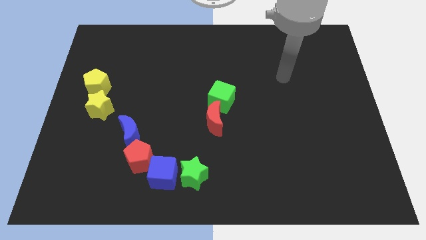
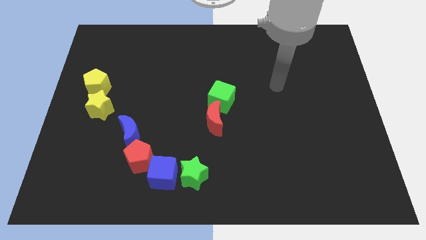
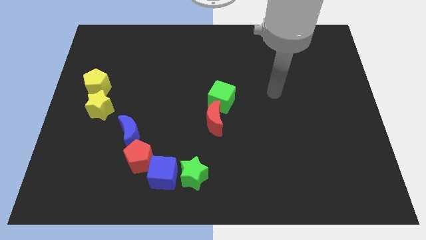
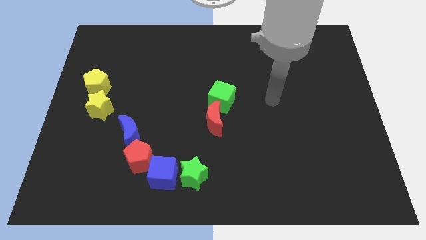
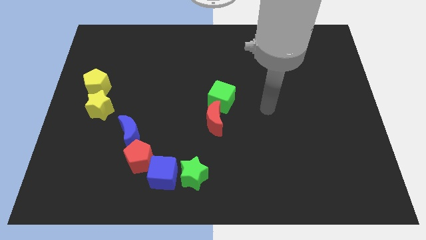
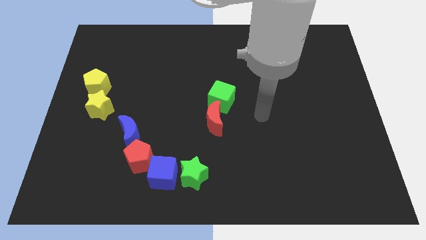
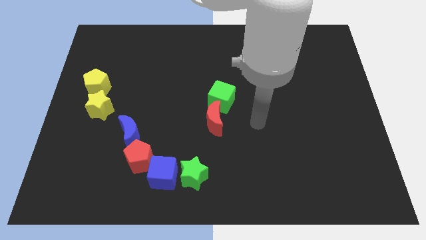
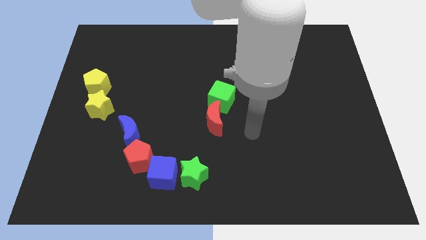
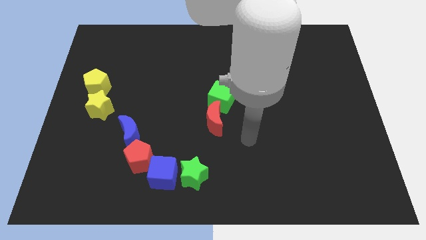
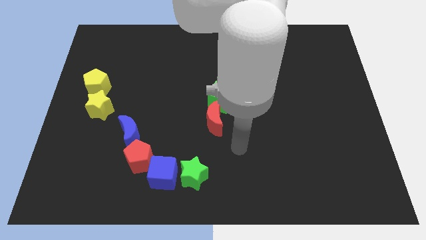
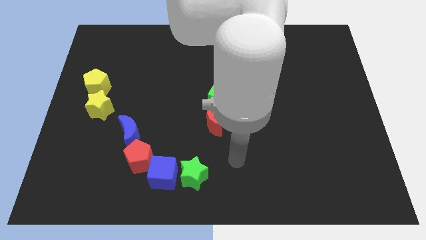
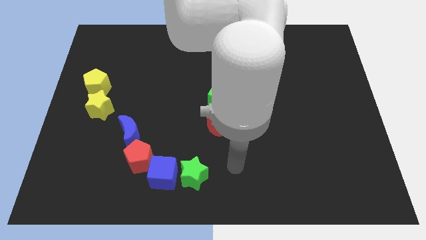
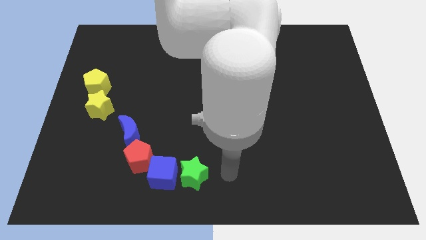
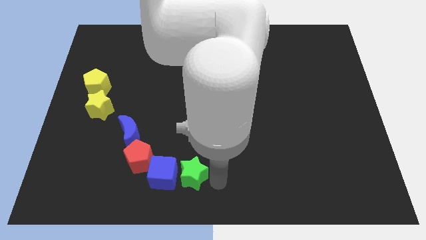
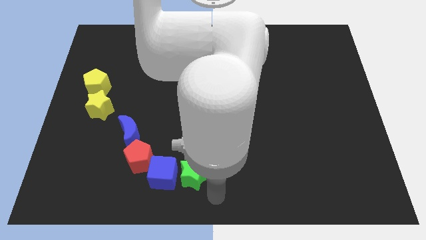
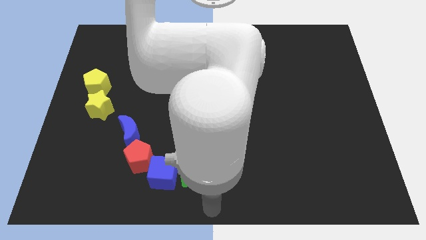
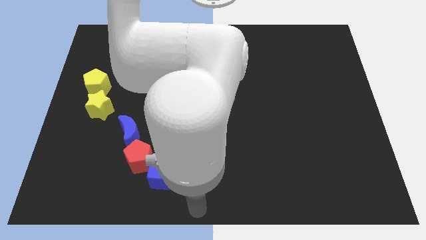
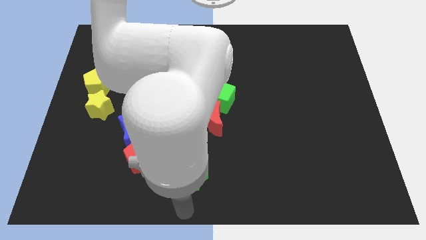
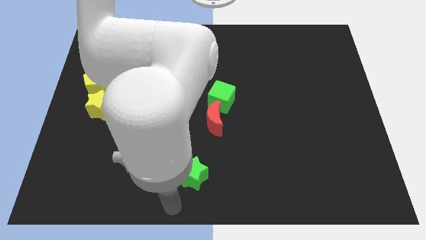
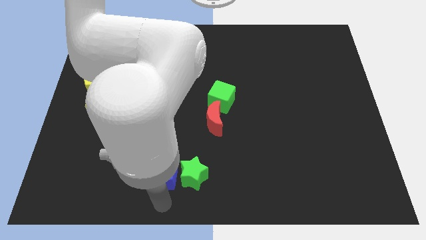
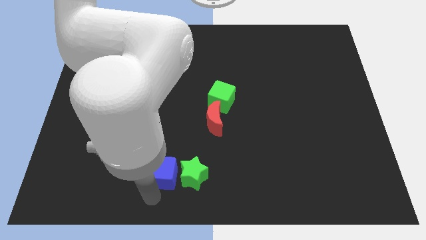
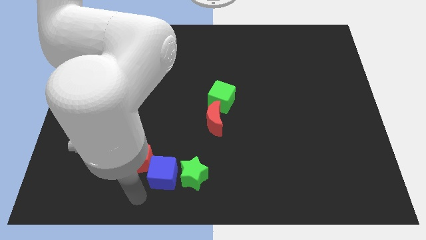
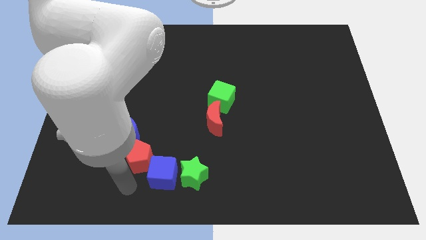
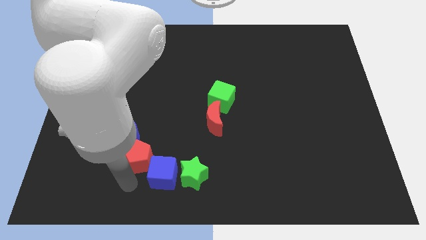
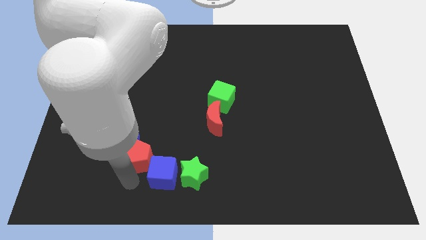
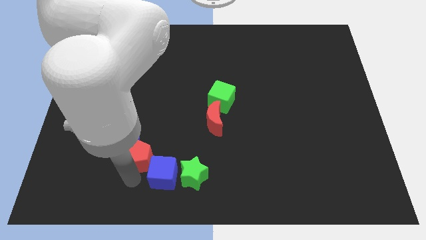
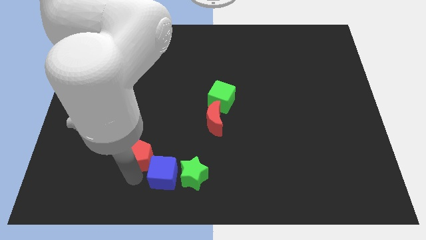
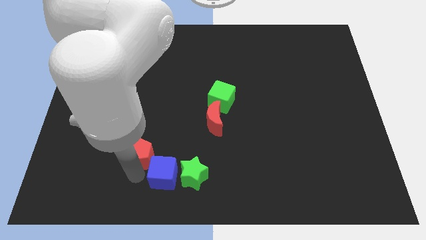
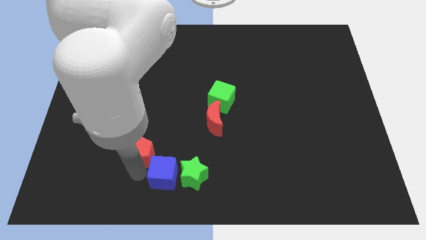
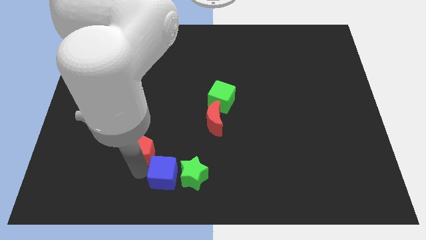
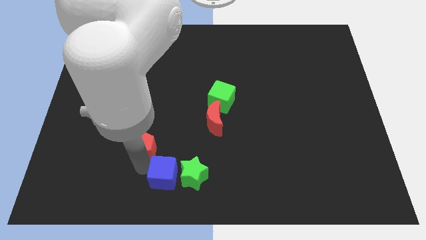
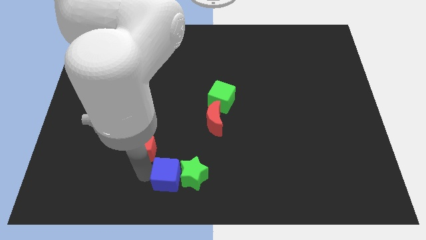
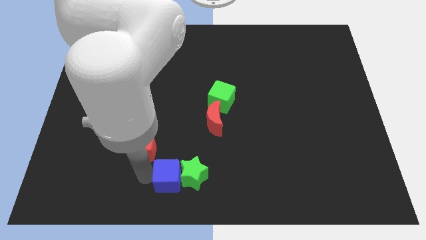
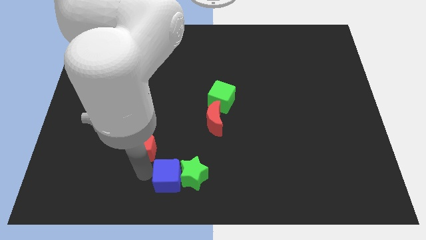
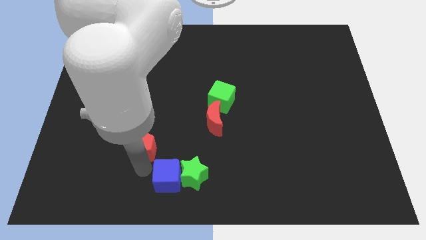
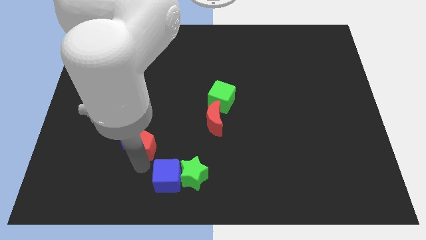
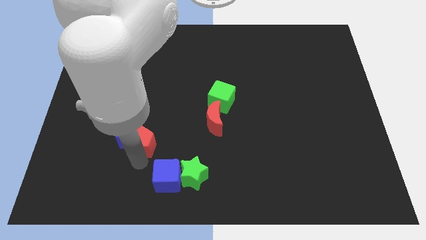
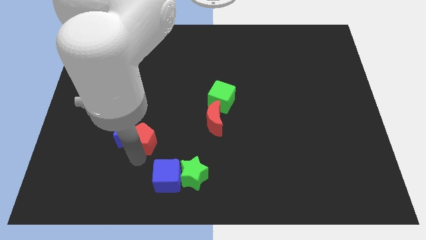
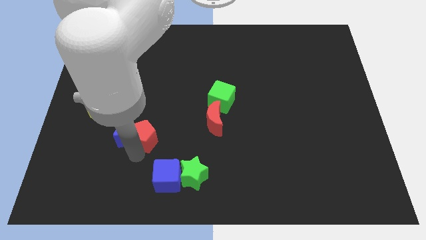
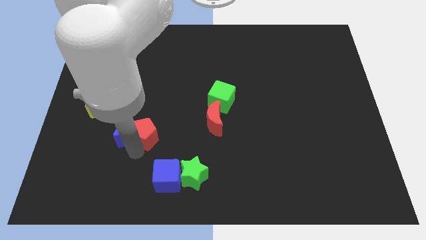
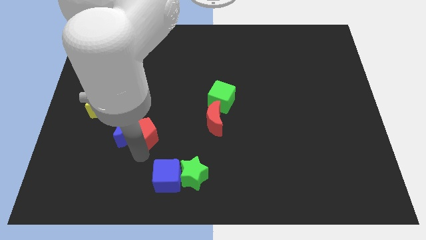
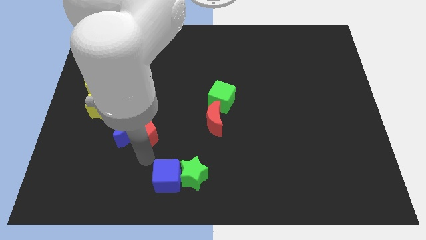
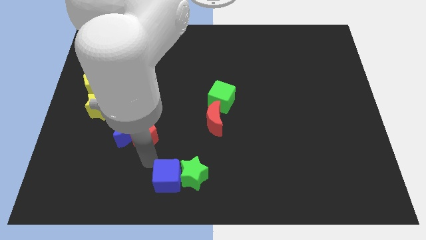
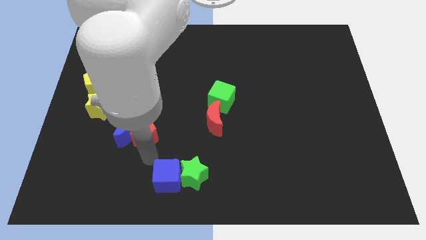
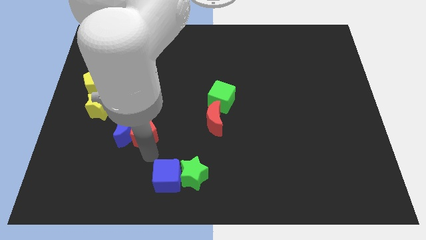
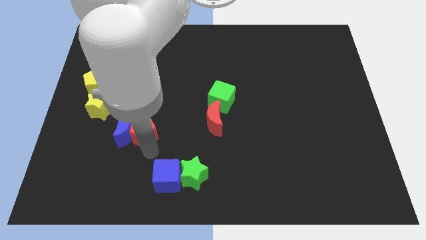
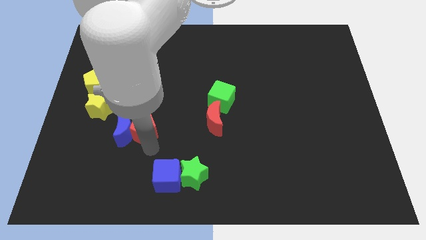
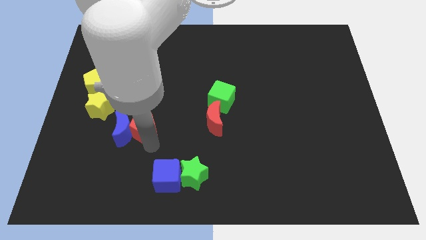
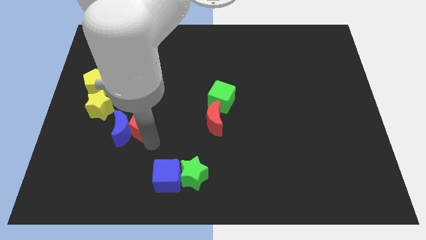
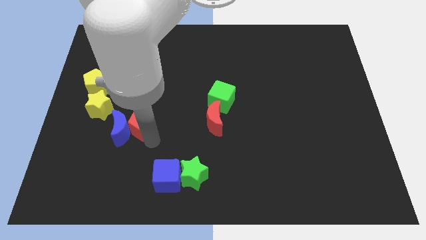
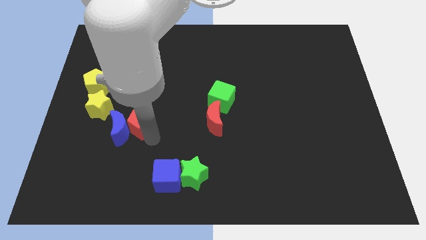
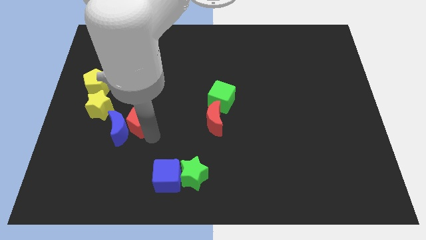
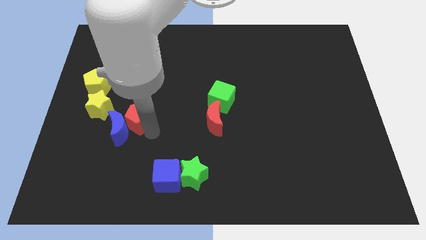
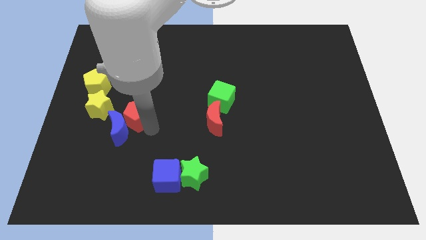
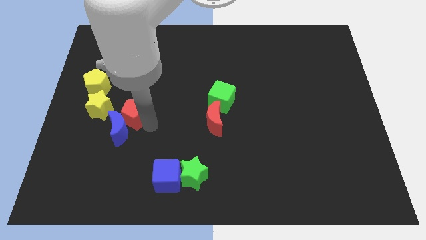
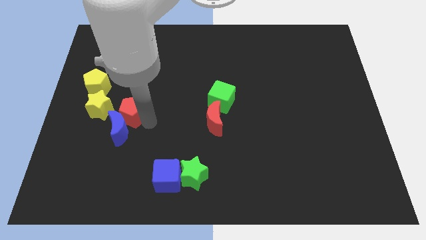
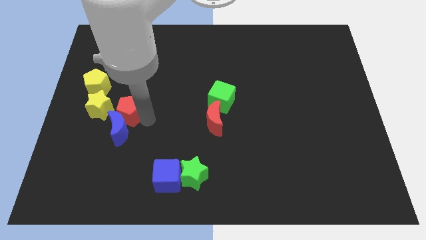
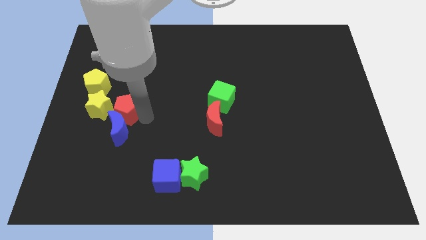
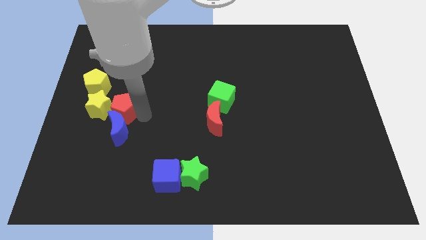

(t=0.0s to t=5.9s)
move the red pentagon to the top right of the yellow star

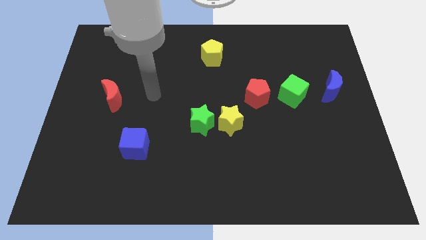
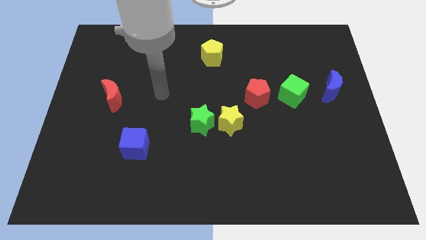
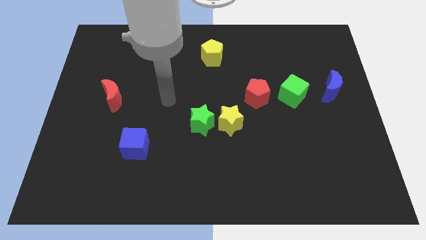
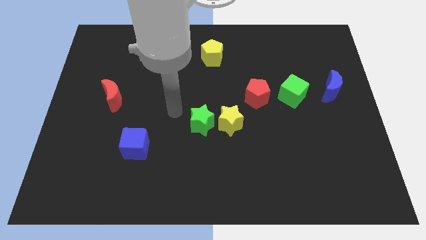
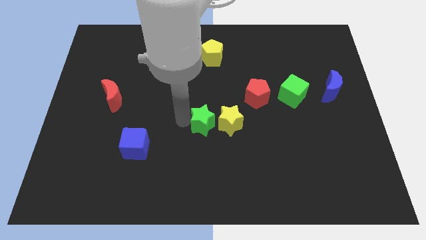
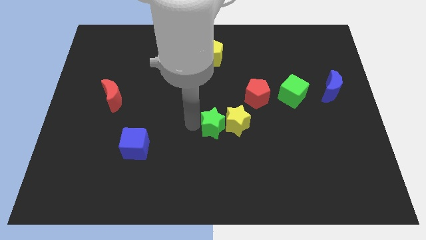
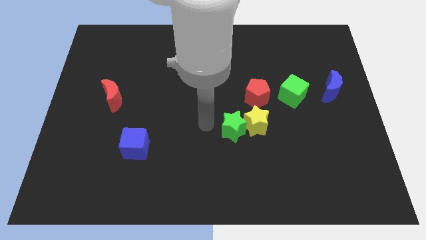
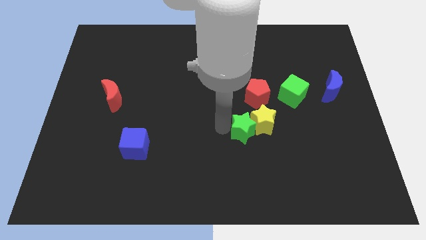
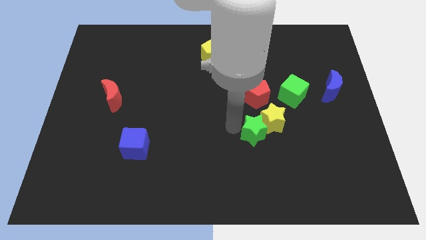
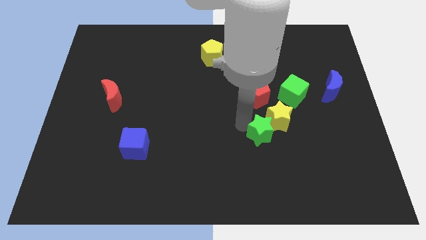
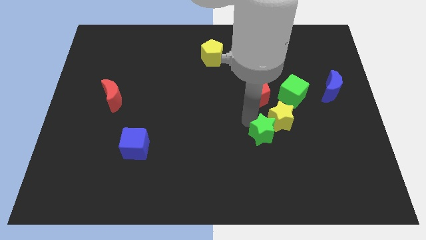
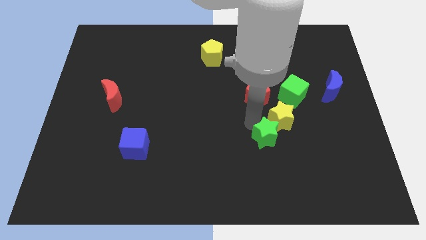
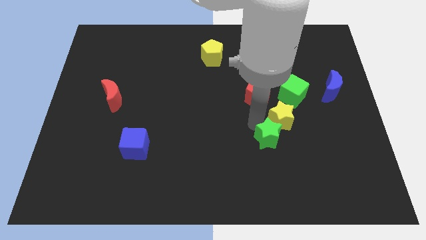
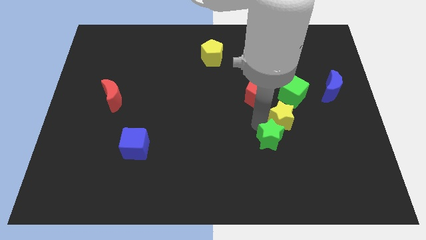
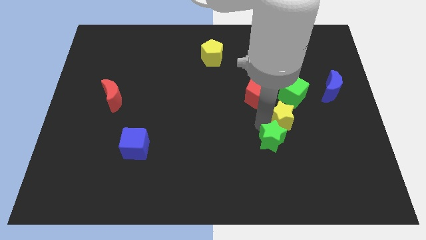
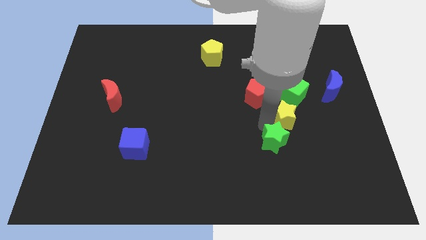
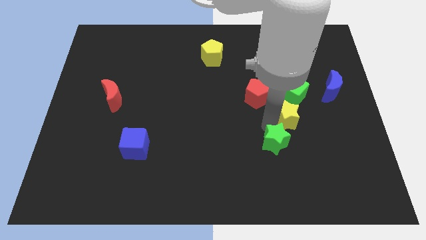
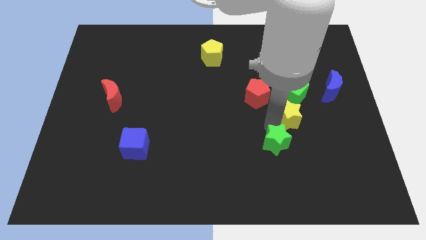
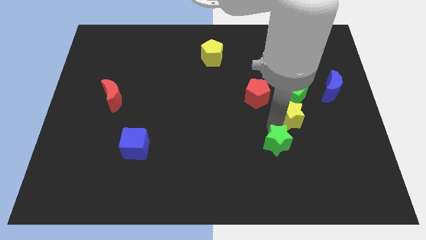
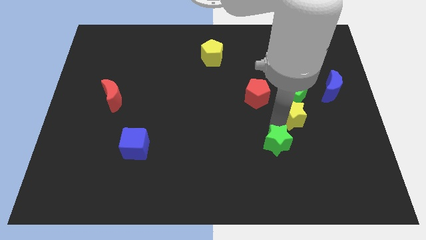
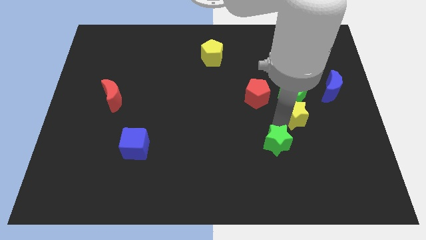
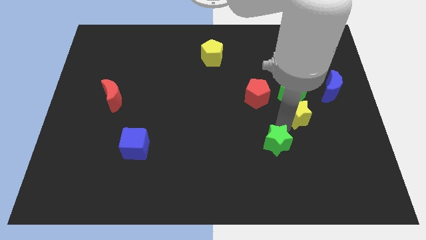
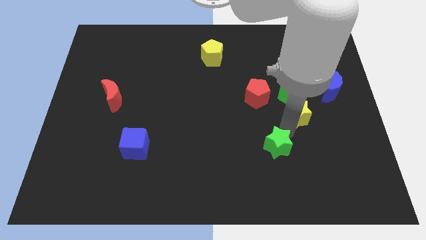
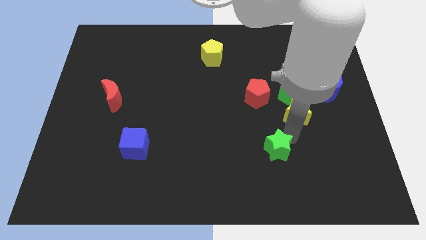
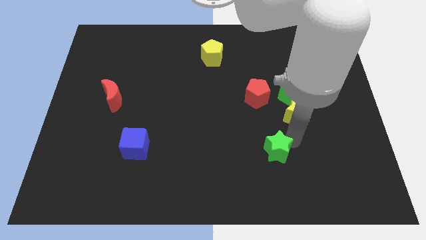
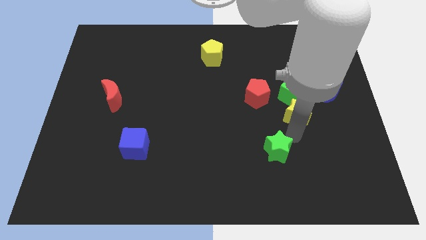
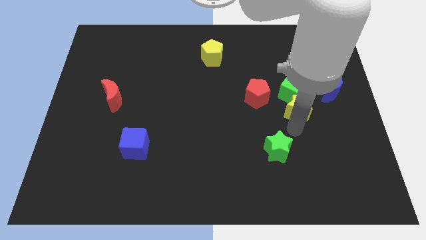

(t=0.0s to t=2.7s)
slide the yellow star just right of the red pentagon
